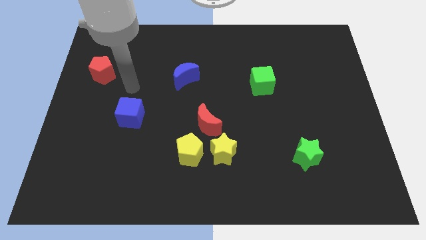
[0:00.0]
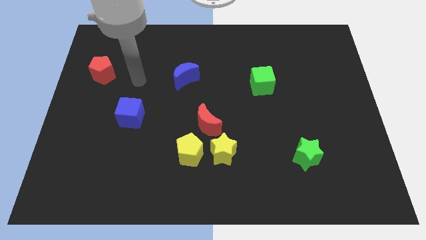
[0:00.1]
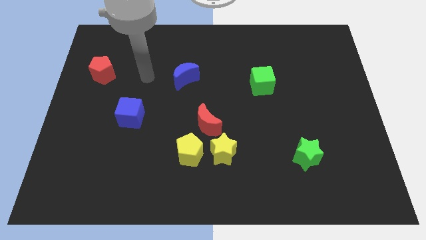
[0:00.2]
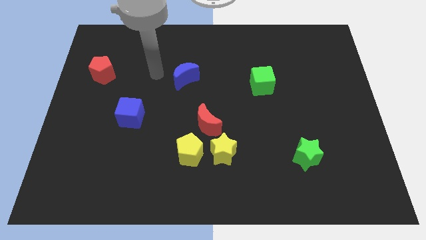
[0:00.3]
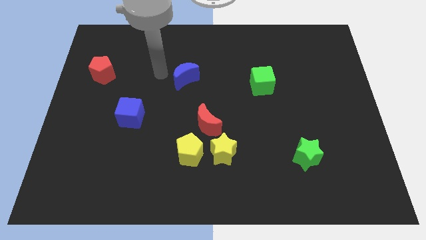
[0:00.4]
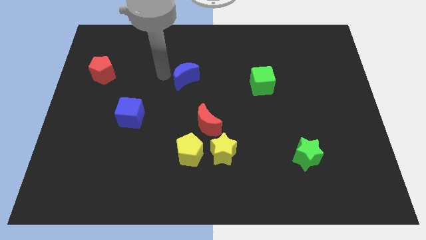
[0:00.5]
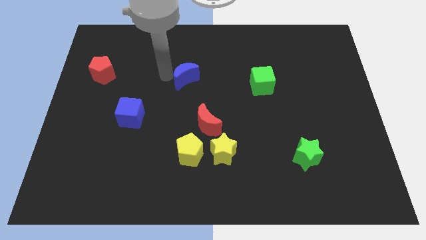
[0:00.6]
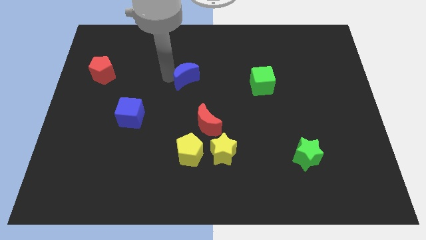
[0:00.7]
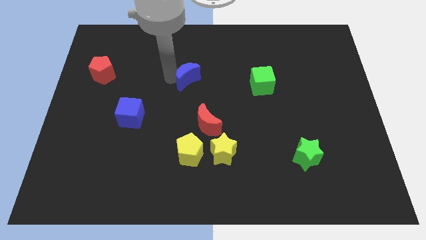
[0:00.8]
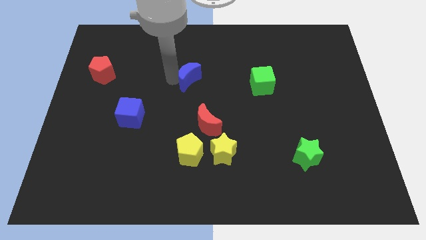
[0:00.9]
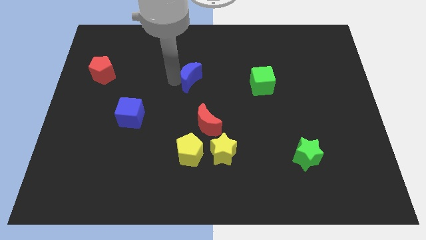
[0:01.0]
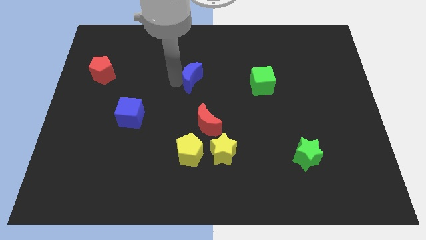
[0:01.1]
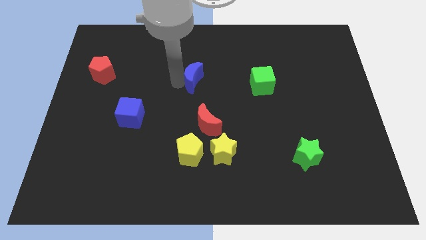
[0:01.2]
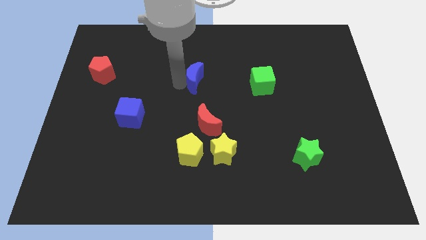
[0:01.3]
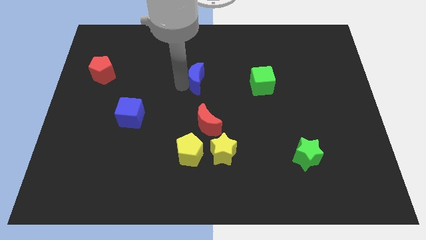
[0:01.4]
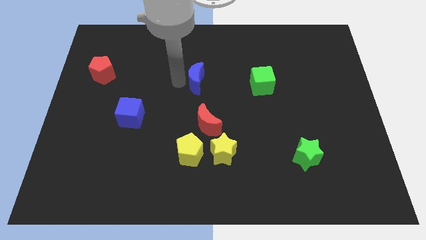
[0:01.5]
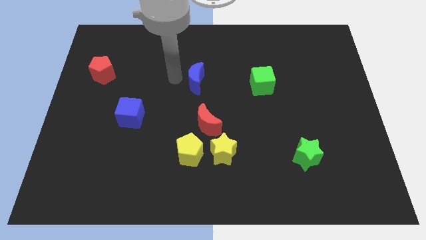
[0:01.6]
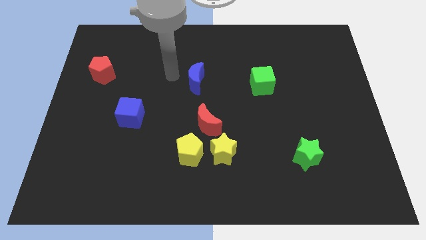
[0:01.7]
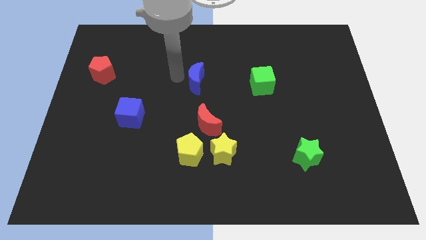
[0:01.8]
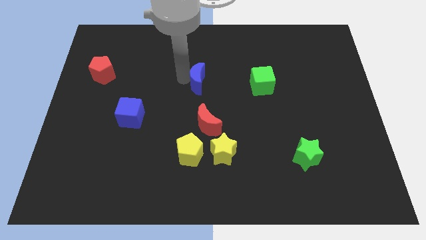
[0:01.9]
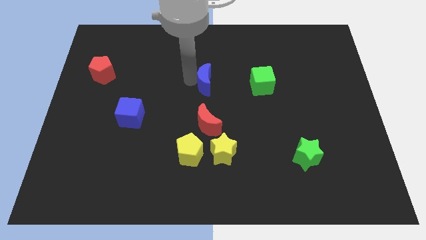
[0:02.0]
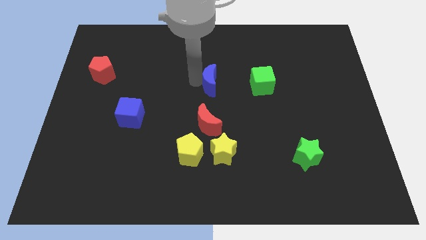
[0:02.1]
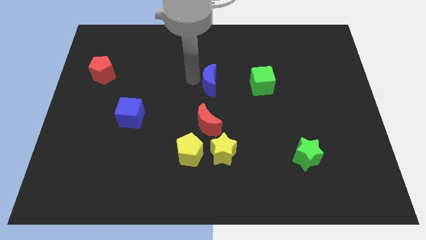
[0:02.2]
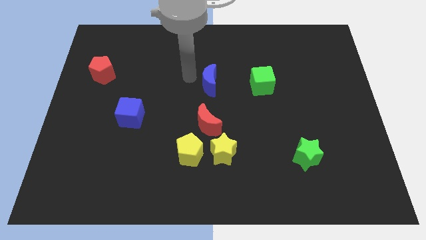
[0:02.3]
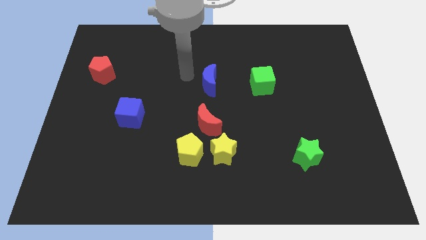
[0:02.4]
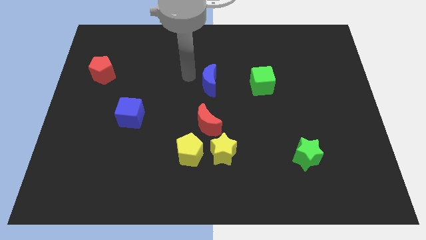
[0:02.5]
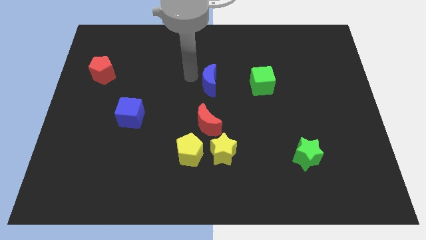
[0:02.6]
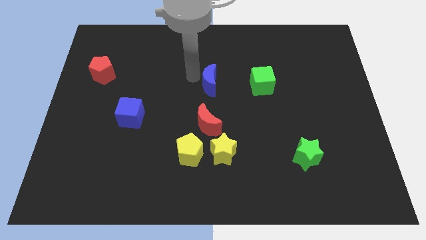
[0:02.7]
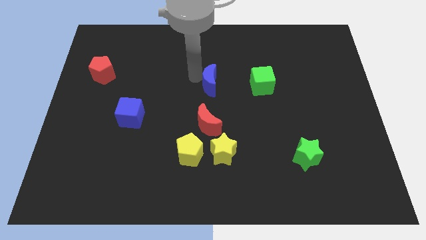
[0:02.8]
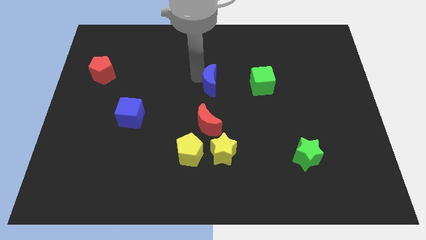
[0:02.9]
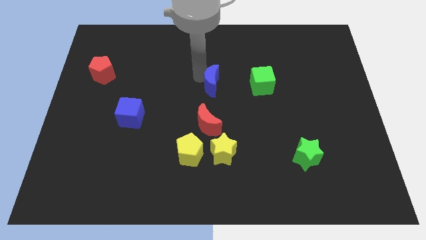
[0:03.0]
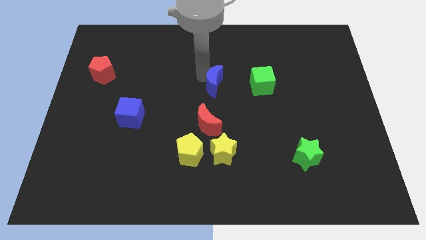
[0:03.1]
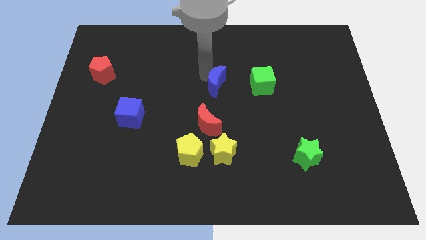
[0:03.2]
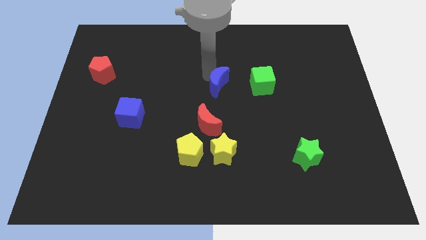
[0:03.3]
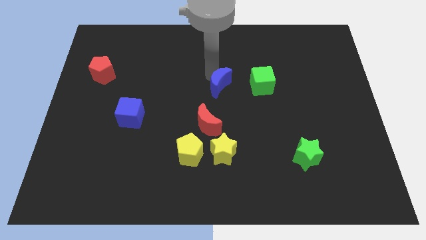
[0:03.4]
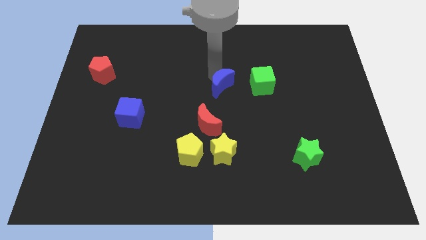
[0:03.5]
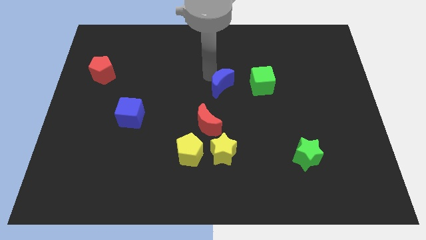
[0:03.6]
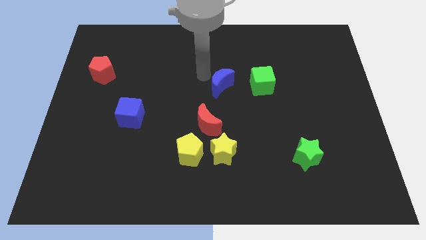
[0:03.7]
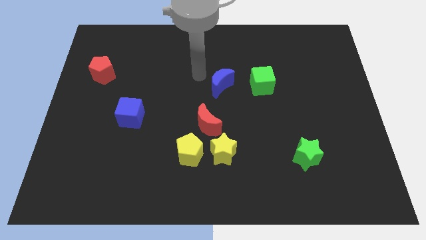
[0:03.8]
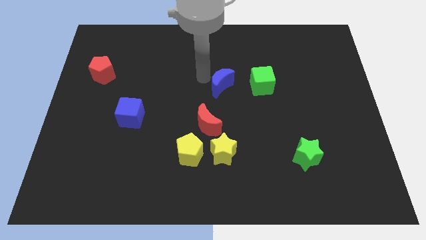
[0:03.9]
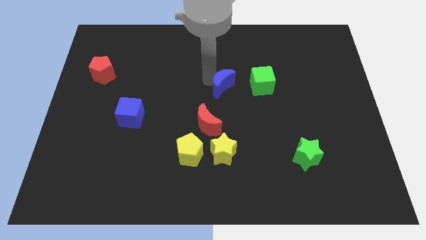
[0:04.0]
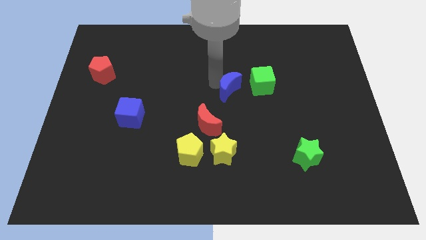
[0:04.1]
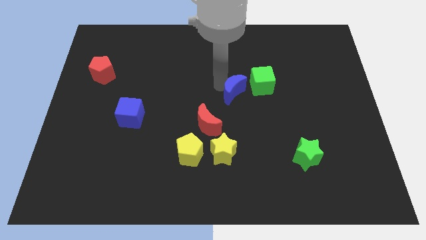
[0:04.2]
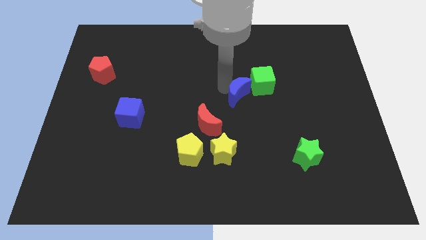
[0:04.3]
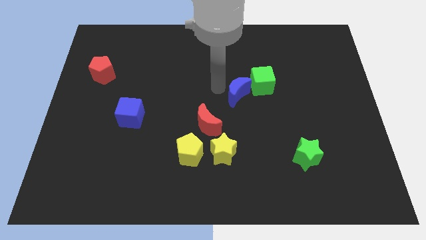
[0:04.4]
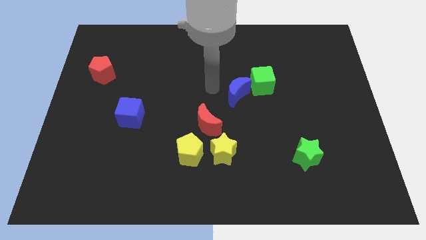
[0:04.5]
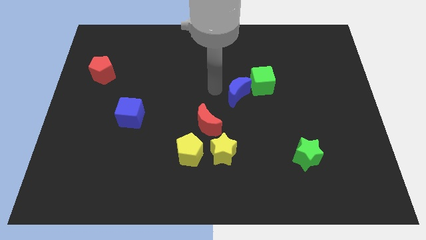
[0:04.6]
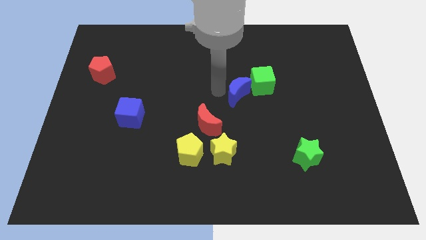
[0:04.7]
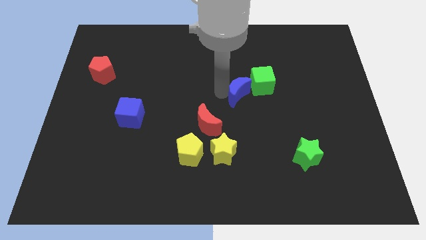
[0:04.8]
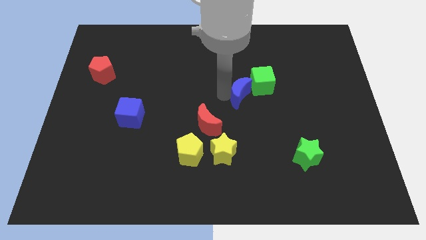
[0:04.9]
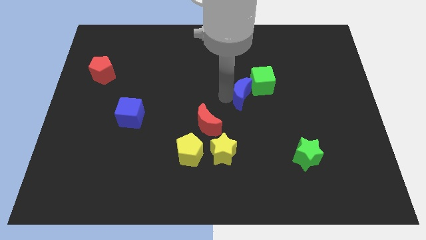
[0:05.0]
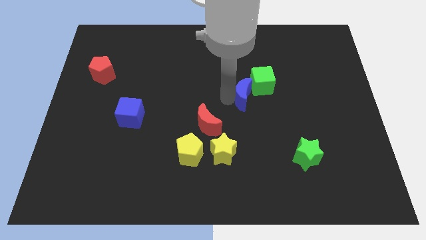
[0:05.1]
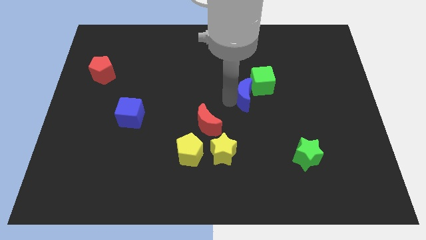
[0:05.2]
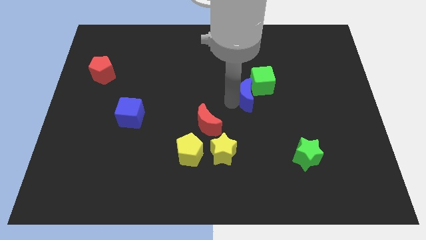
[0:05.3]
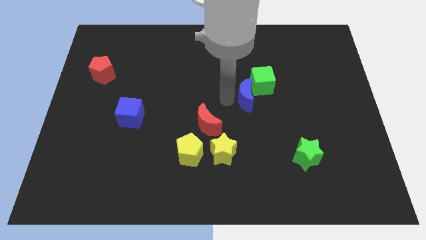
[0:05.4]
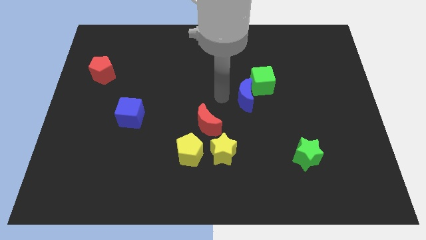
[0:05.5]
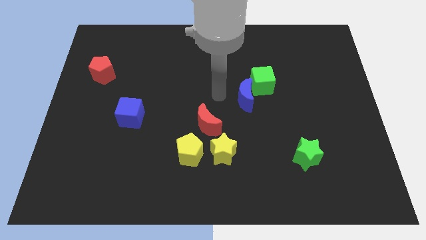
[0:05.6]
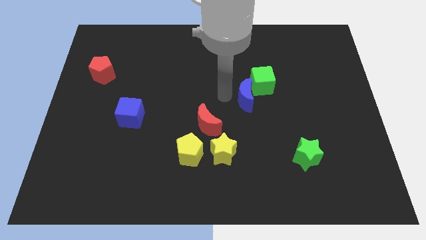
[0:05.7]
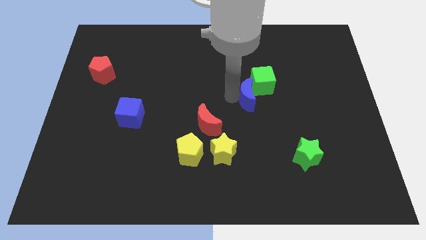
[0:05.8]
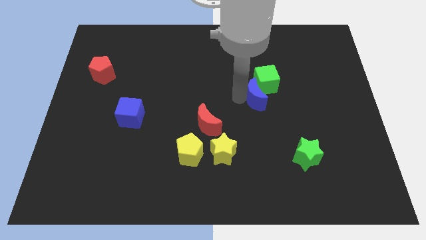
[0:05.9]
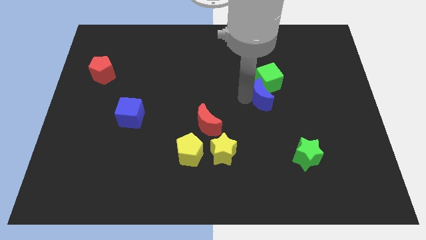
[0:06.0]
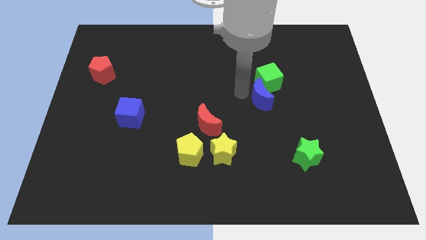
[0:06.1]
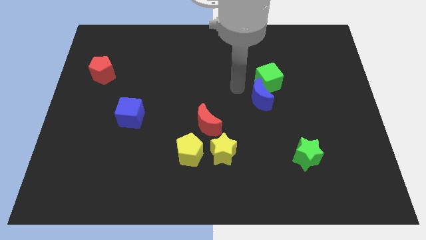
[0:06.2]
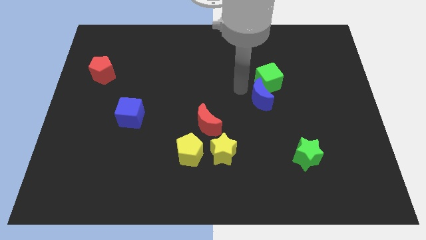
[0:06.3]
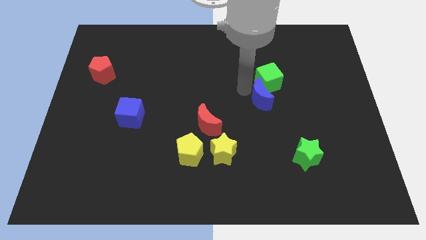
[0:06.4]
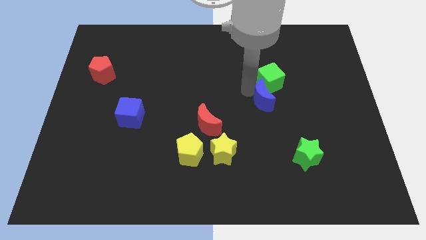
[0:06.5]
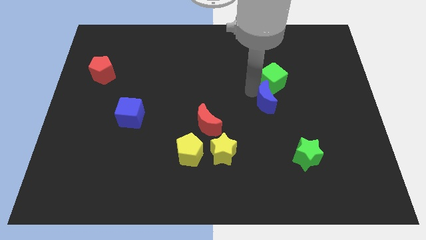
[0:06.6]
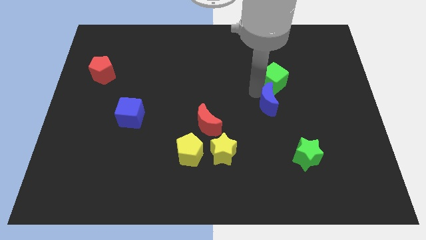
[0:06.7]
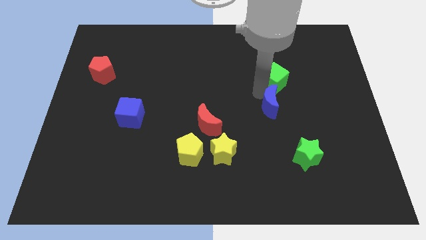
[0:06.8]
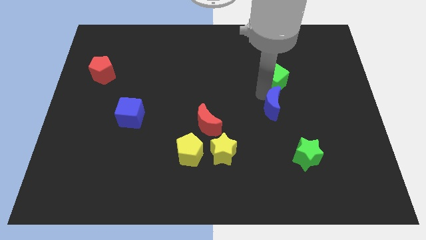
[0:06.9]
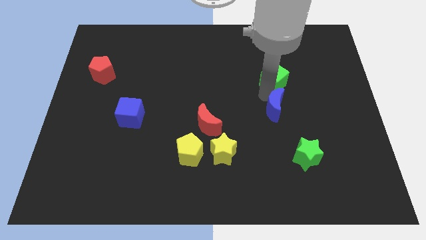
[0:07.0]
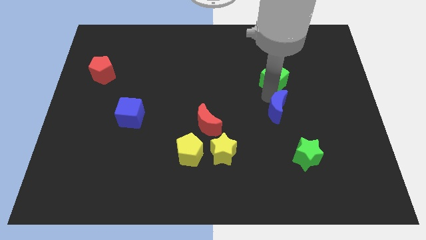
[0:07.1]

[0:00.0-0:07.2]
put the blue moon to the top side of the green star

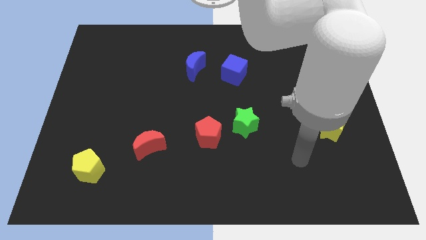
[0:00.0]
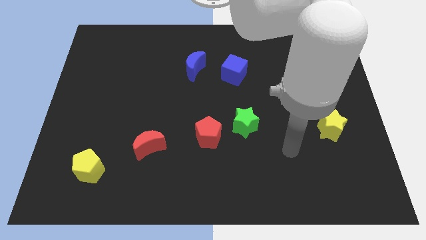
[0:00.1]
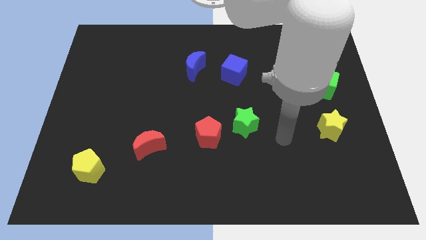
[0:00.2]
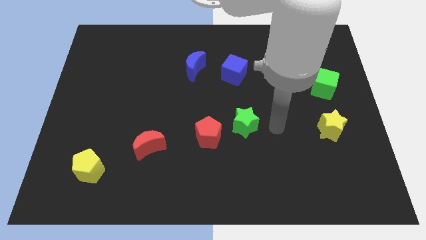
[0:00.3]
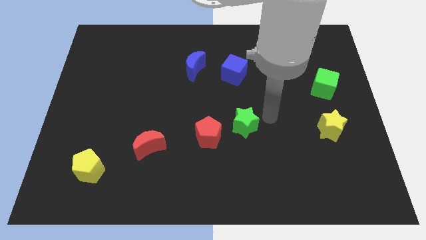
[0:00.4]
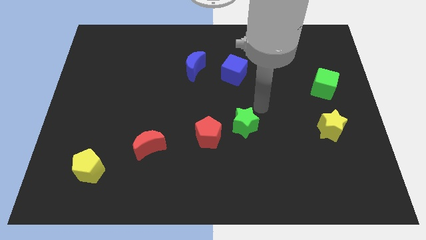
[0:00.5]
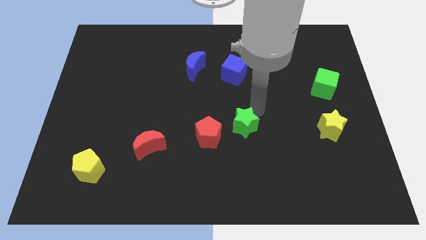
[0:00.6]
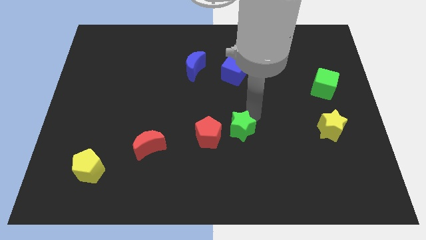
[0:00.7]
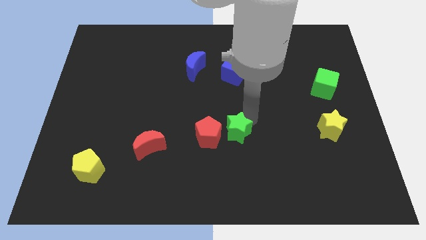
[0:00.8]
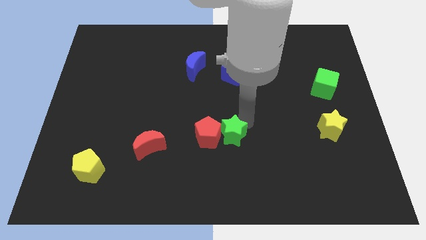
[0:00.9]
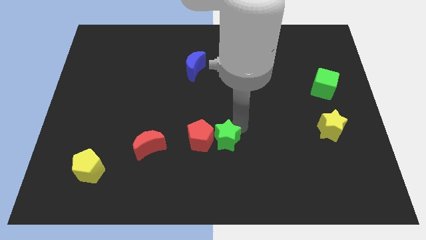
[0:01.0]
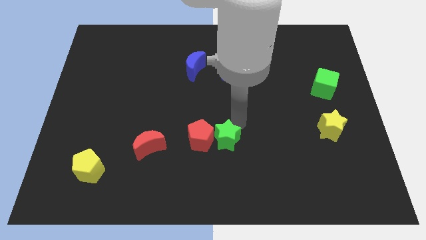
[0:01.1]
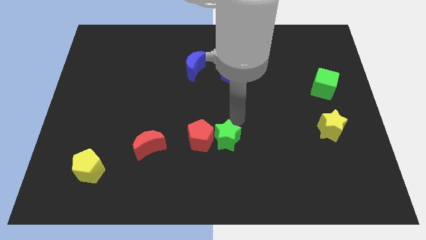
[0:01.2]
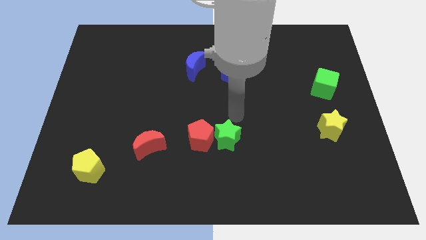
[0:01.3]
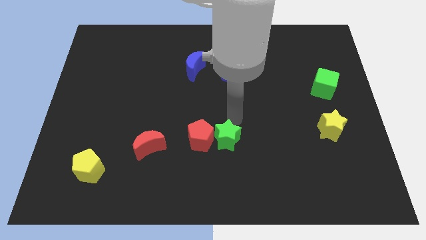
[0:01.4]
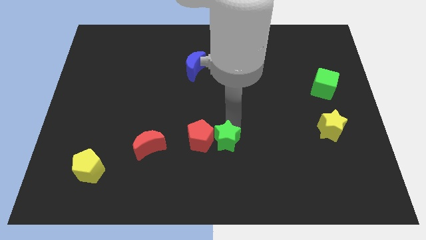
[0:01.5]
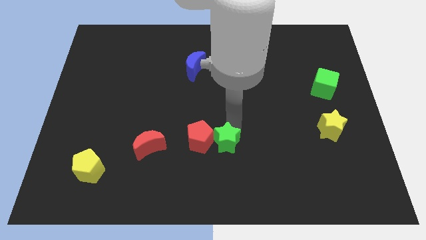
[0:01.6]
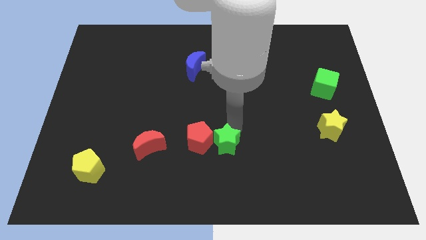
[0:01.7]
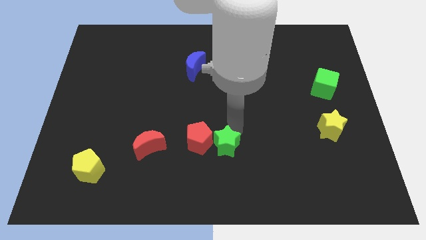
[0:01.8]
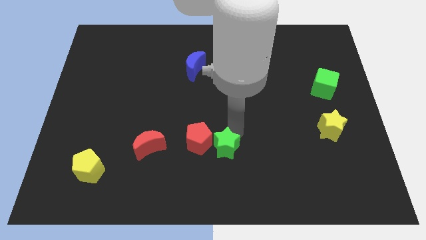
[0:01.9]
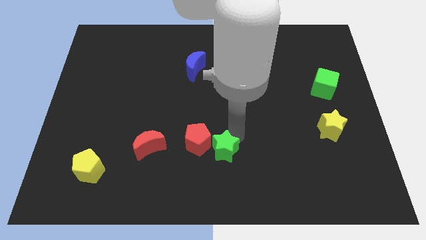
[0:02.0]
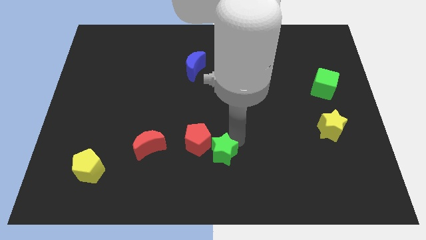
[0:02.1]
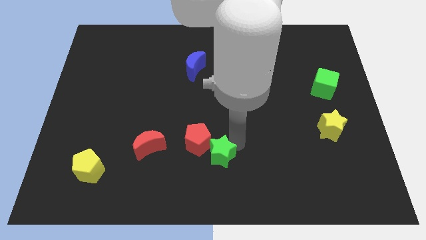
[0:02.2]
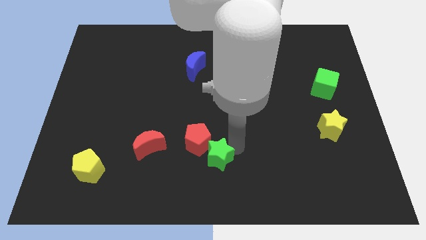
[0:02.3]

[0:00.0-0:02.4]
push the green star to the bottom side of the red pentagon
